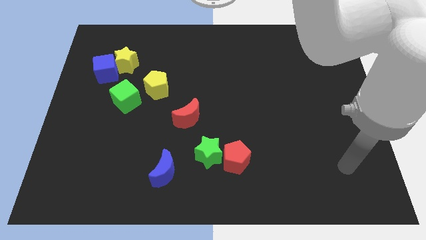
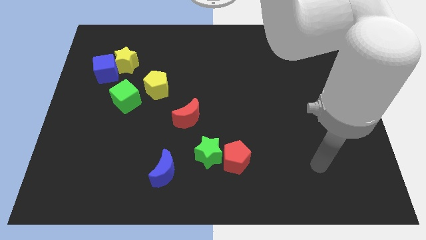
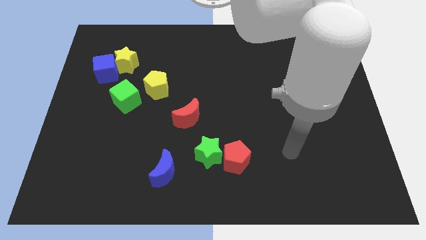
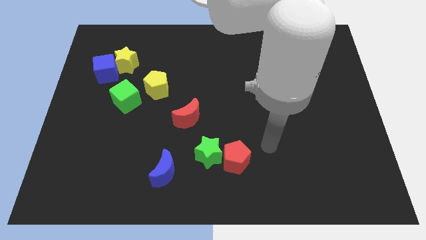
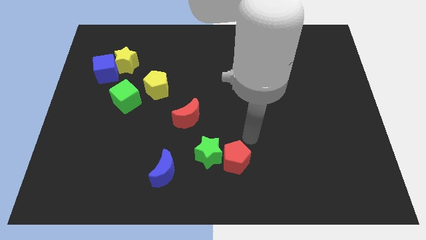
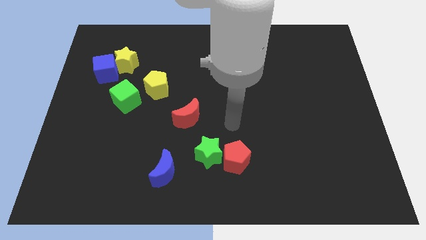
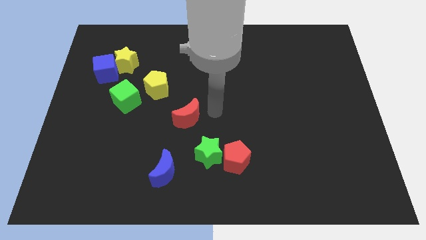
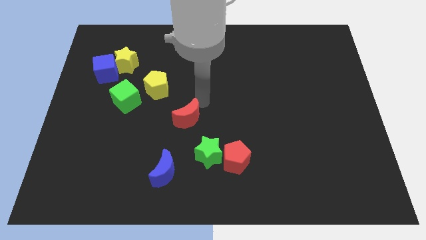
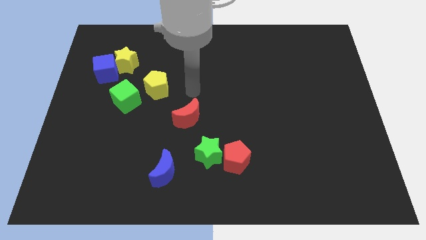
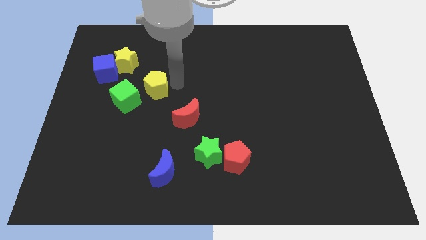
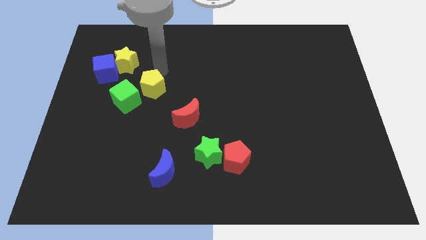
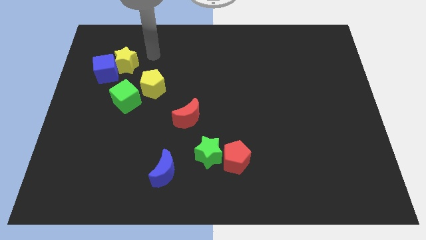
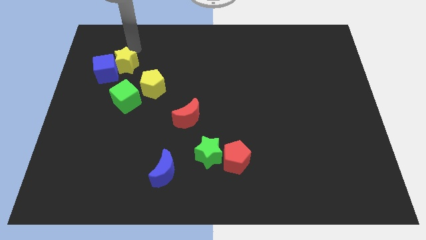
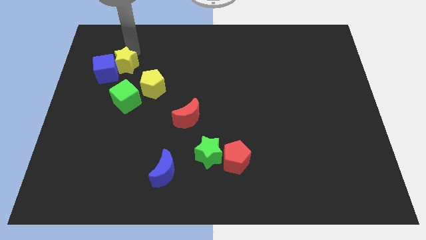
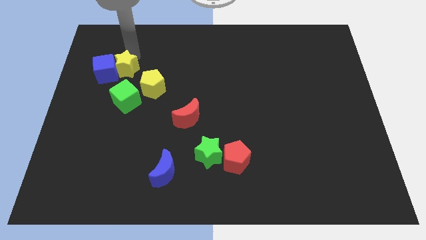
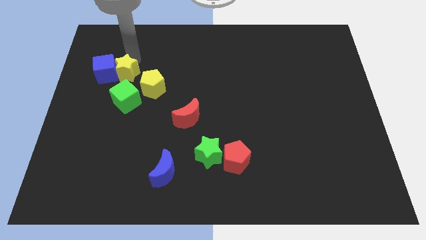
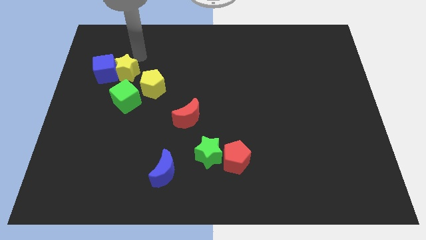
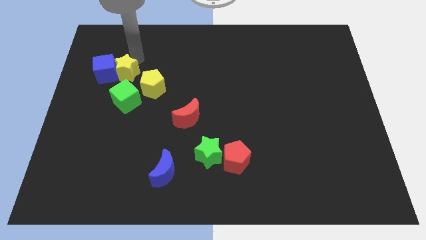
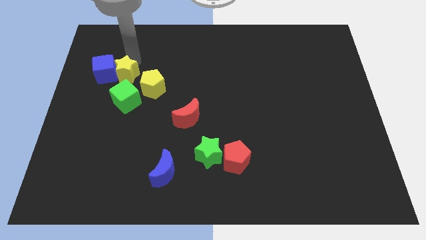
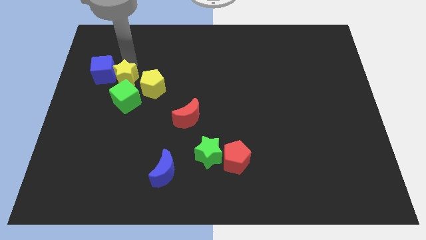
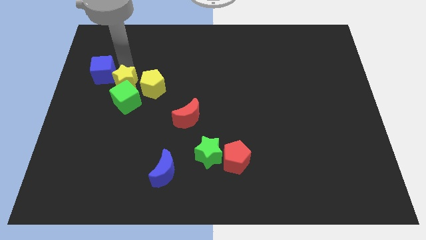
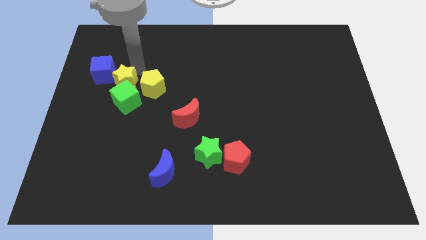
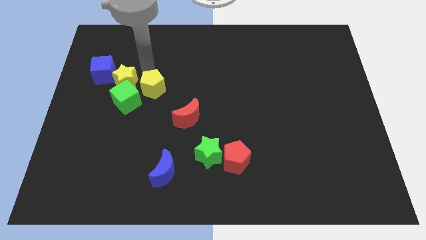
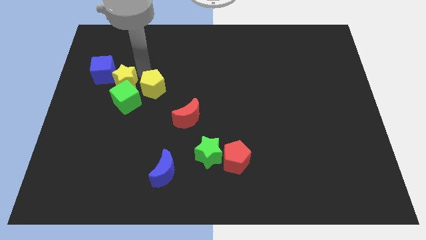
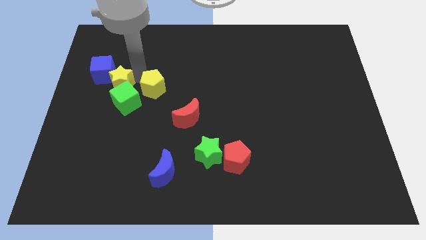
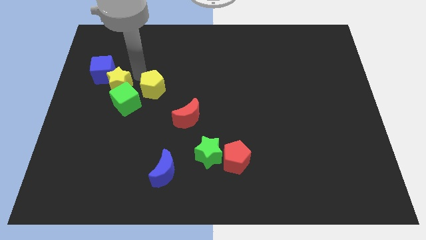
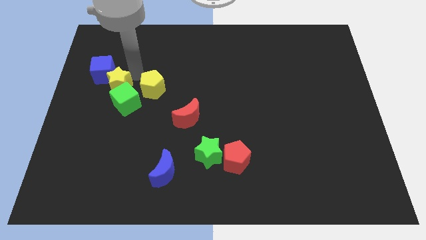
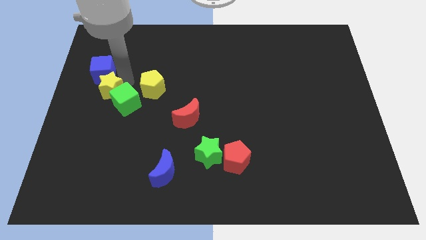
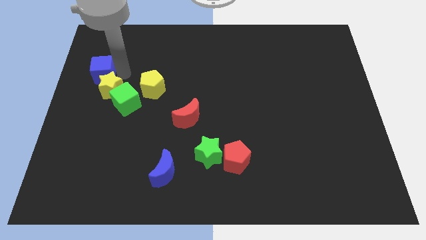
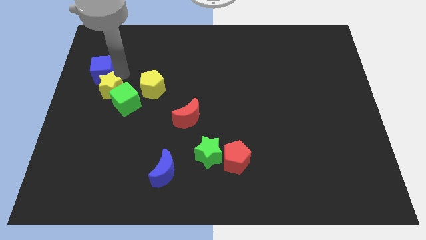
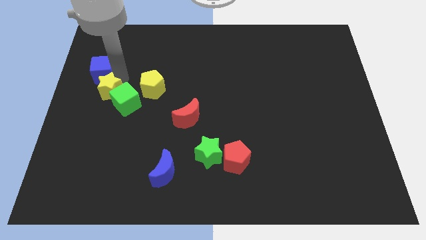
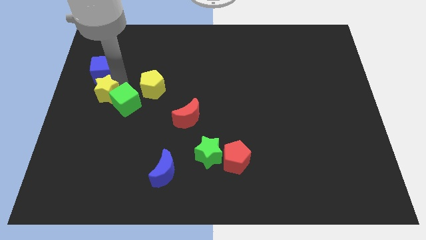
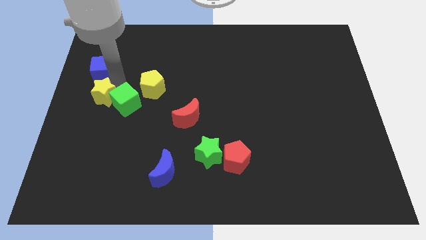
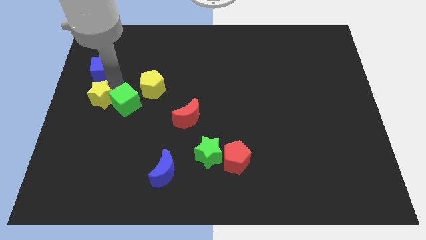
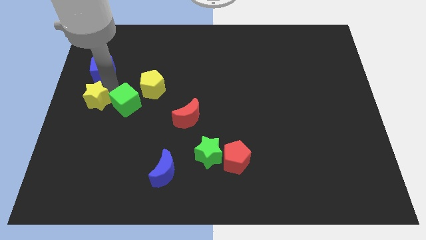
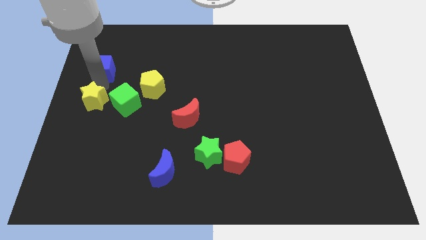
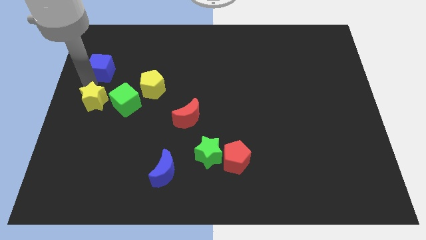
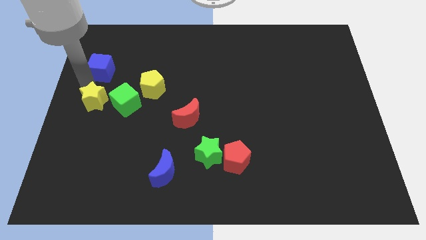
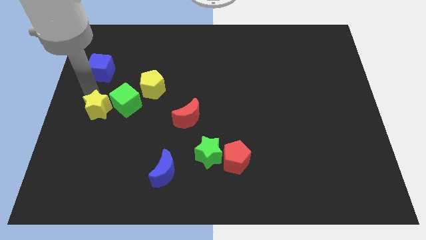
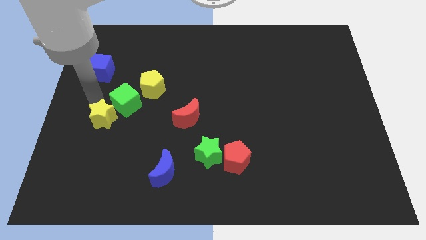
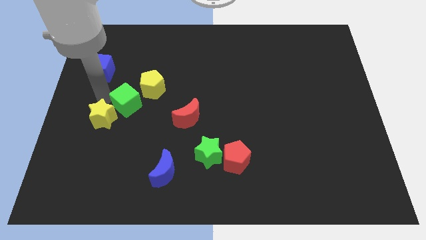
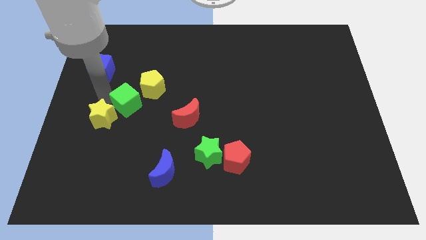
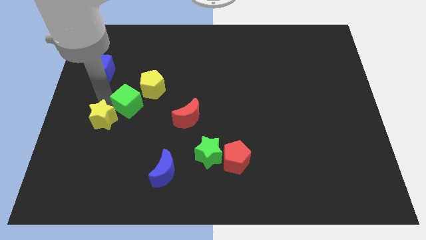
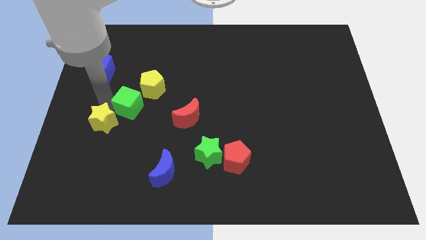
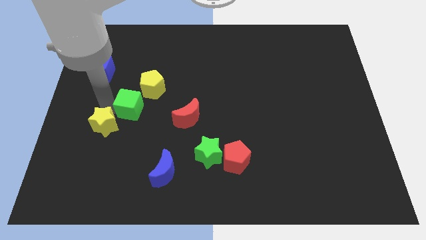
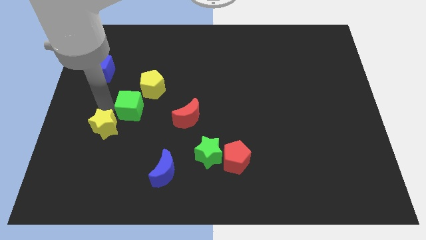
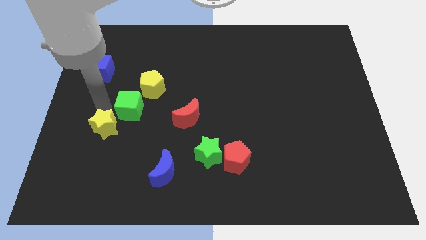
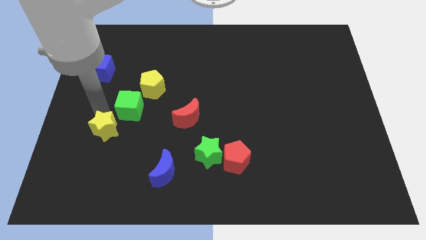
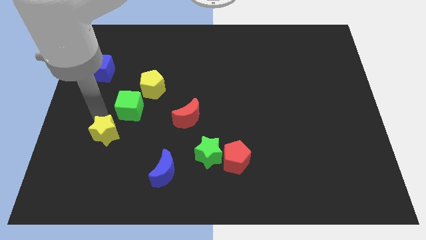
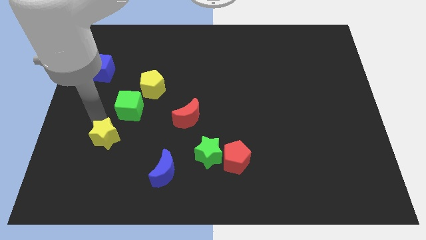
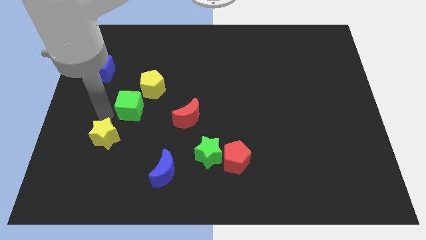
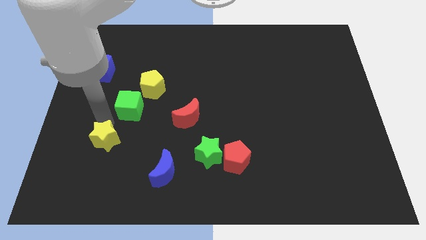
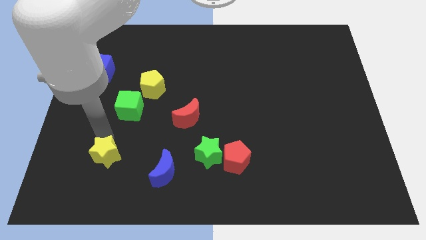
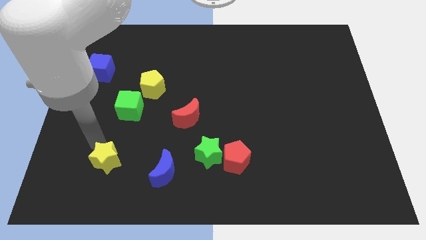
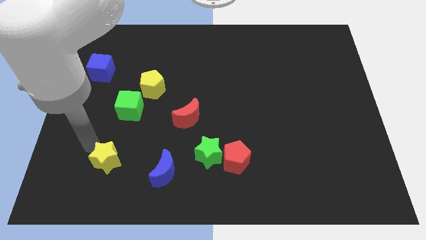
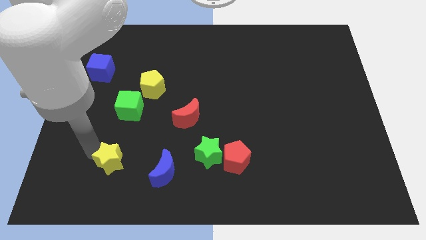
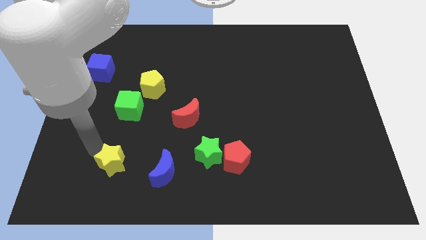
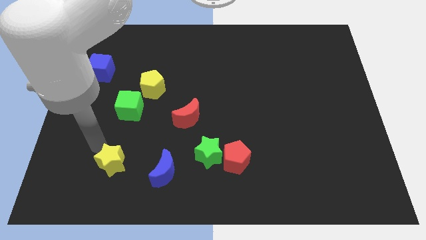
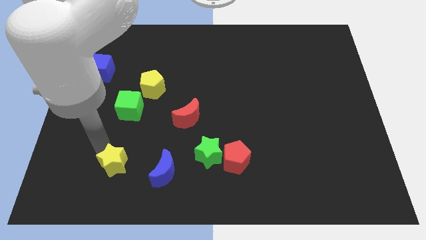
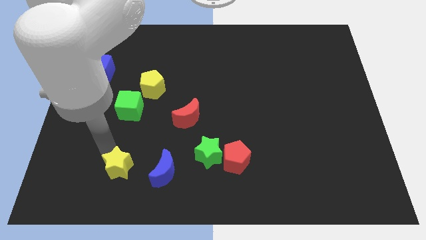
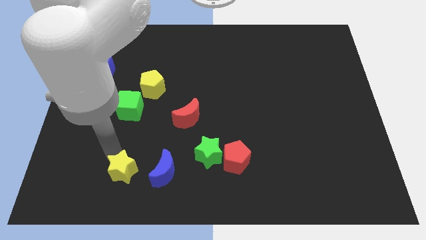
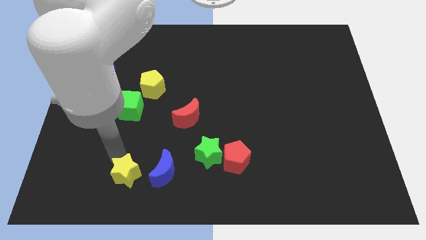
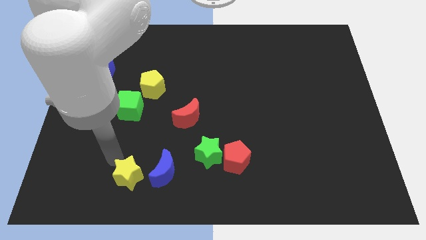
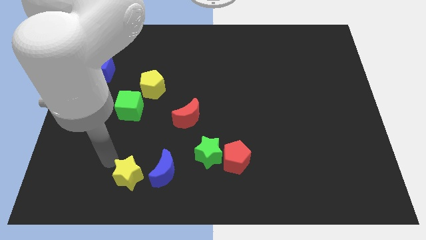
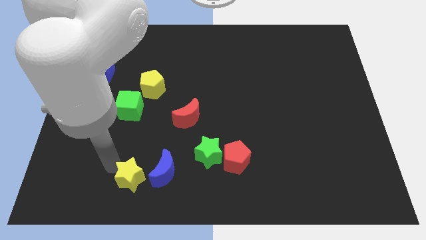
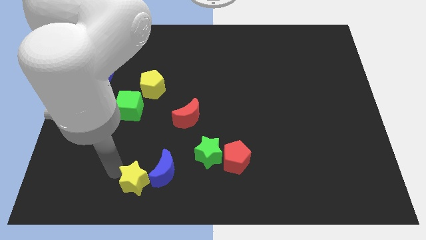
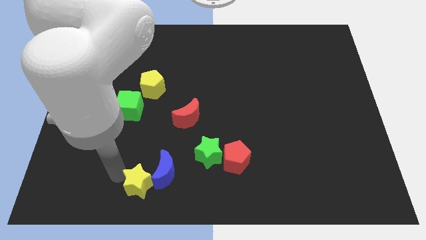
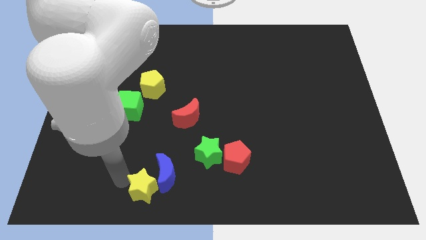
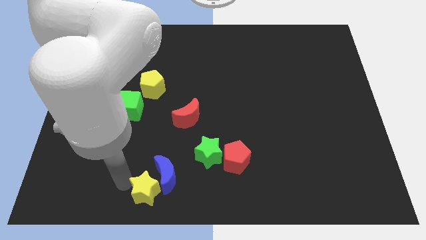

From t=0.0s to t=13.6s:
push the yellow star to the bottom
